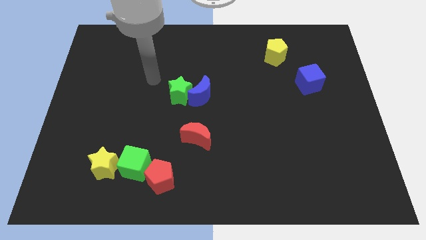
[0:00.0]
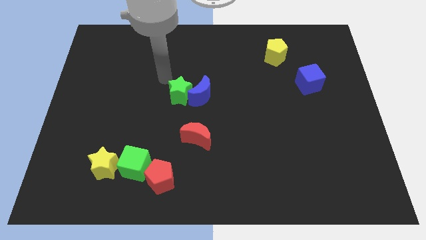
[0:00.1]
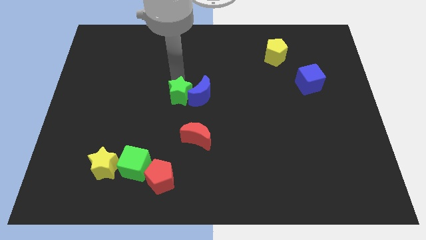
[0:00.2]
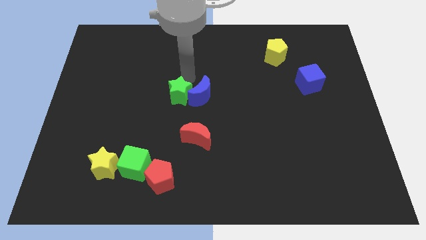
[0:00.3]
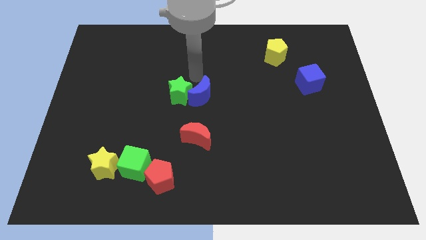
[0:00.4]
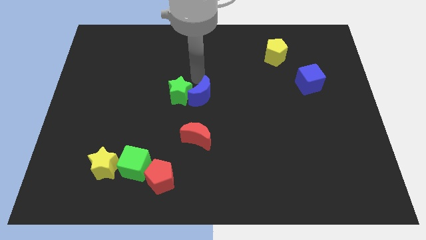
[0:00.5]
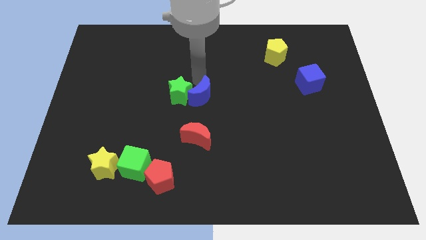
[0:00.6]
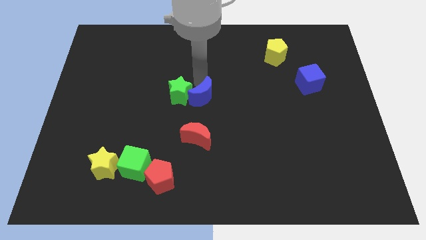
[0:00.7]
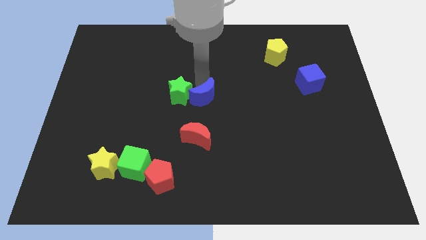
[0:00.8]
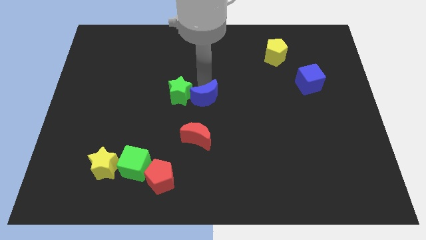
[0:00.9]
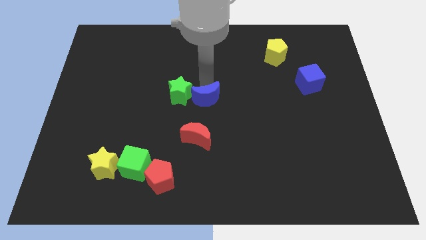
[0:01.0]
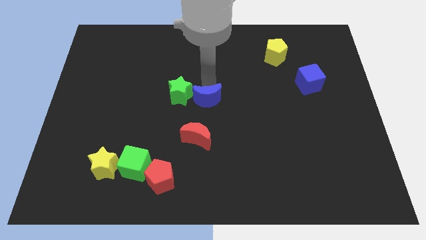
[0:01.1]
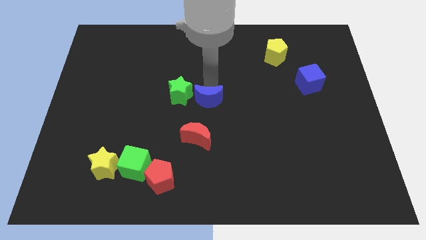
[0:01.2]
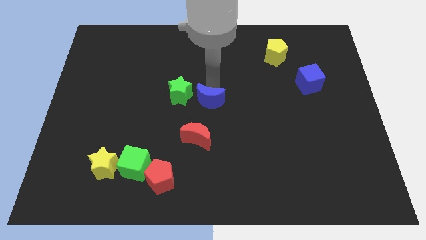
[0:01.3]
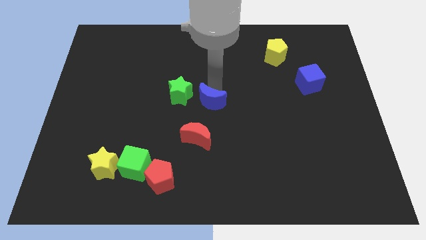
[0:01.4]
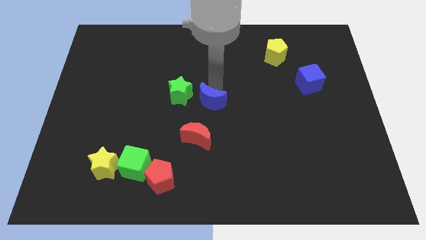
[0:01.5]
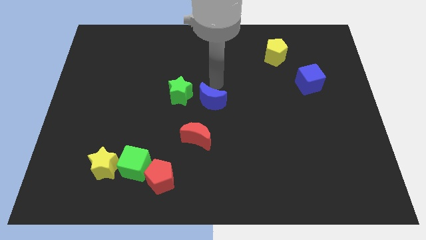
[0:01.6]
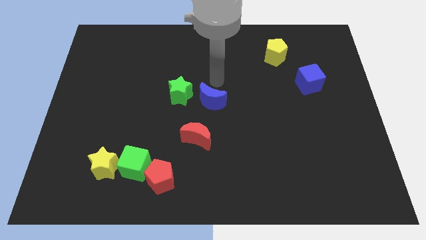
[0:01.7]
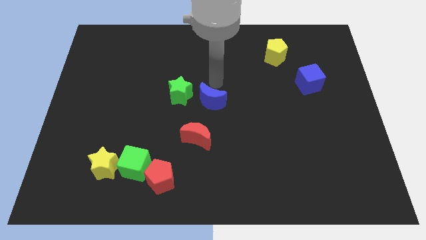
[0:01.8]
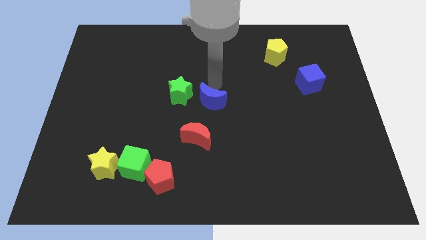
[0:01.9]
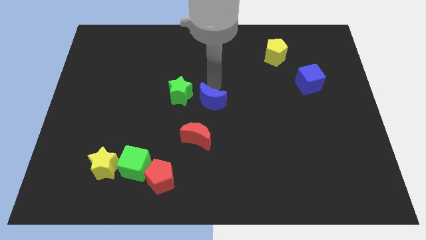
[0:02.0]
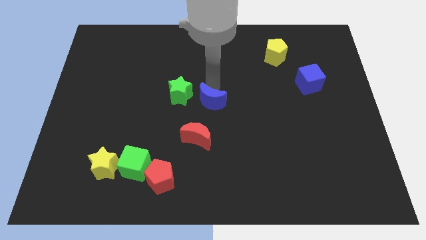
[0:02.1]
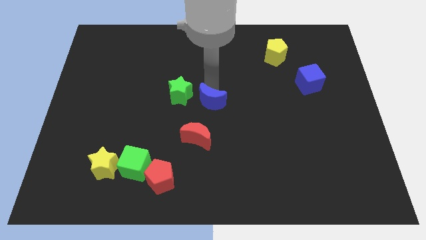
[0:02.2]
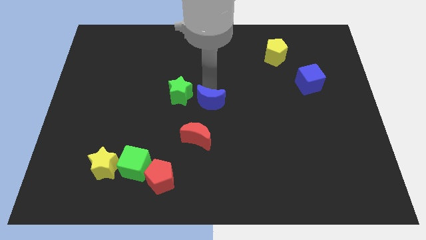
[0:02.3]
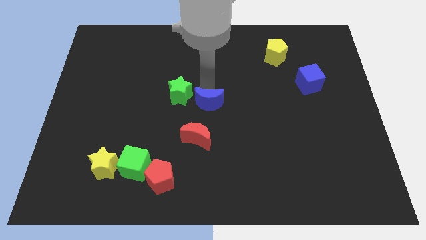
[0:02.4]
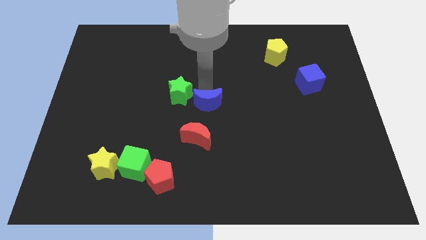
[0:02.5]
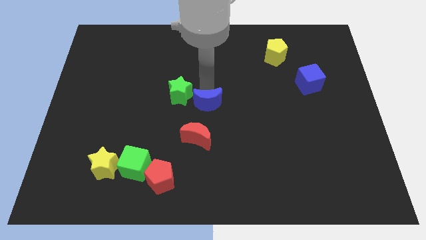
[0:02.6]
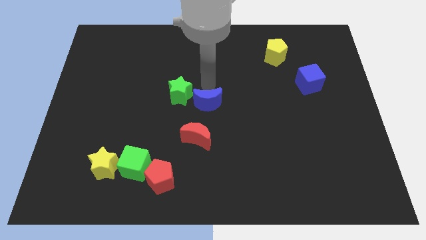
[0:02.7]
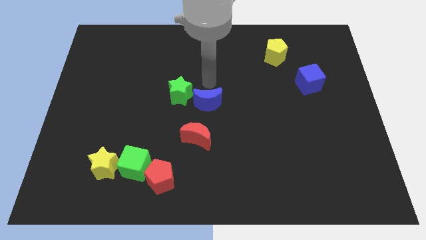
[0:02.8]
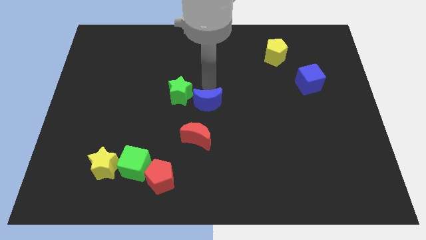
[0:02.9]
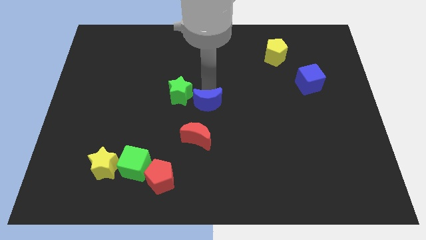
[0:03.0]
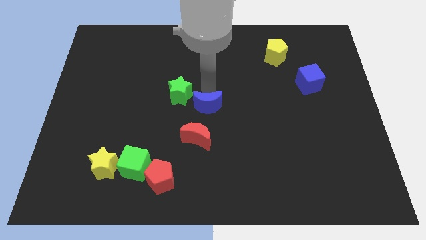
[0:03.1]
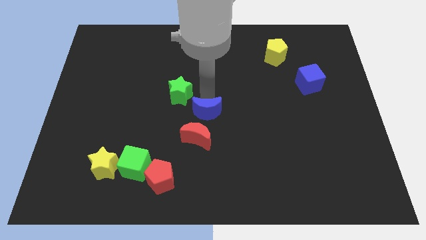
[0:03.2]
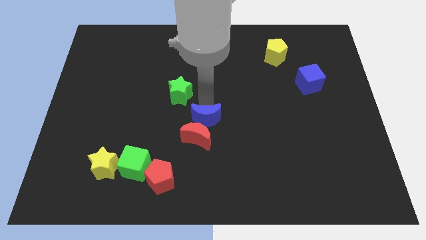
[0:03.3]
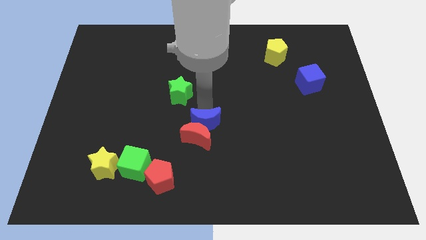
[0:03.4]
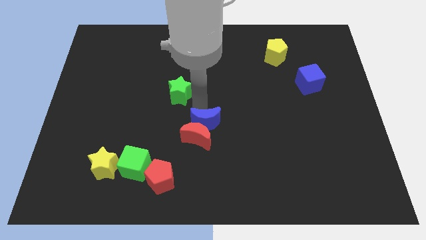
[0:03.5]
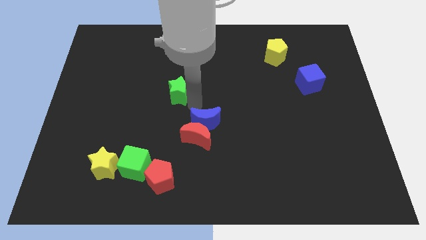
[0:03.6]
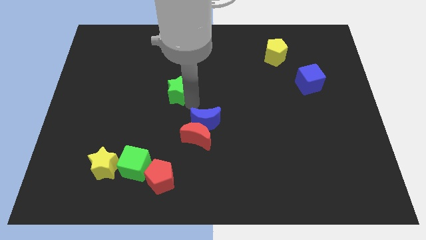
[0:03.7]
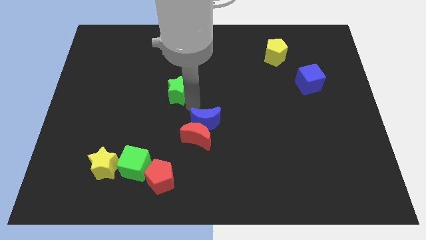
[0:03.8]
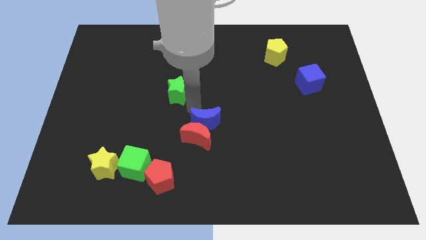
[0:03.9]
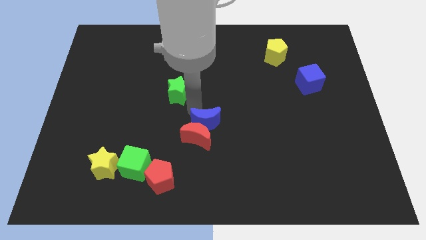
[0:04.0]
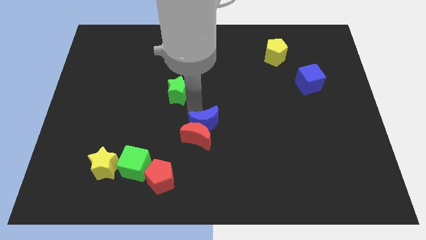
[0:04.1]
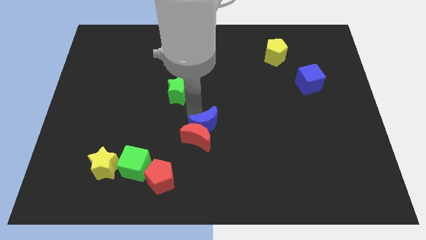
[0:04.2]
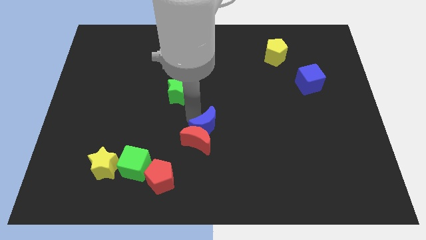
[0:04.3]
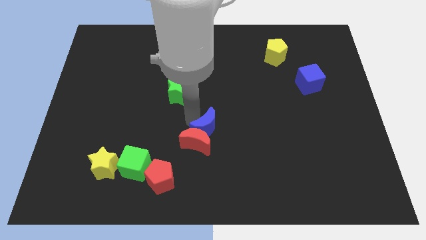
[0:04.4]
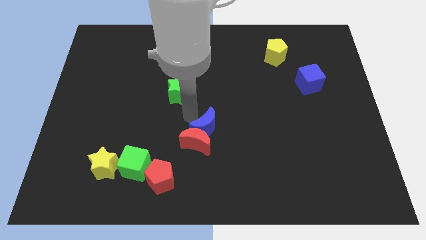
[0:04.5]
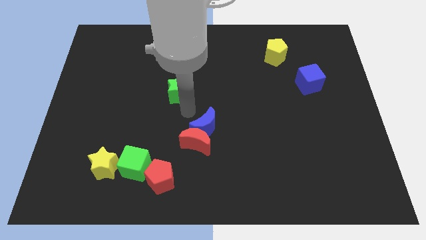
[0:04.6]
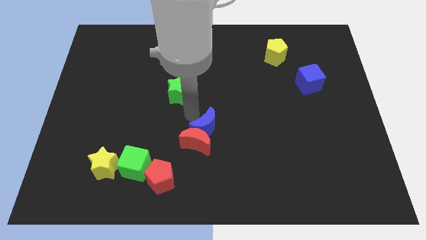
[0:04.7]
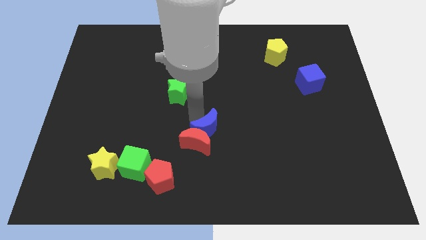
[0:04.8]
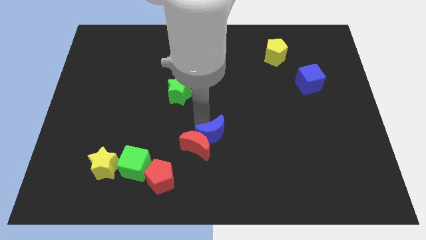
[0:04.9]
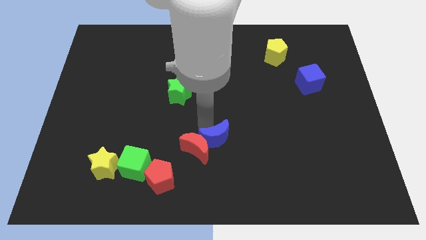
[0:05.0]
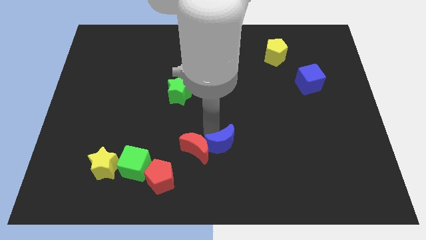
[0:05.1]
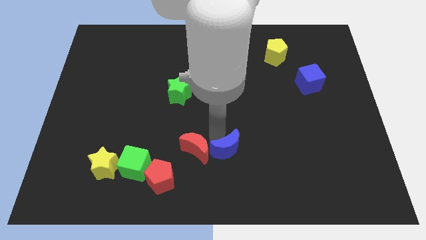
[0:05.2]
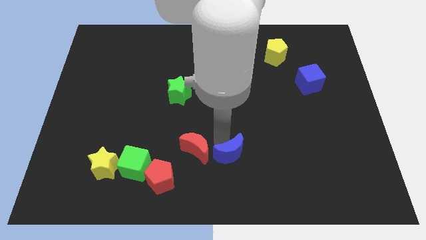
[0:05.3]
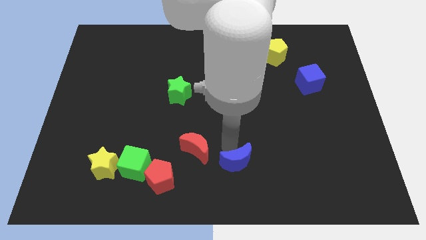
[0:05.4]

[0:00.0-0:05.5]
push the blue moon to the bottom side

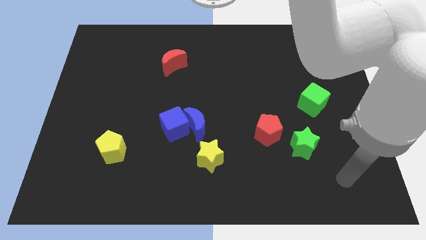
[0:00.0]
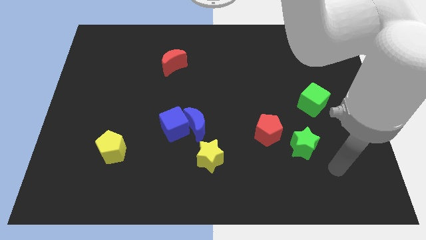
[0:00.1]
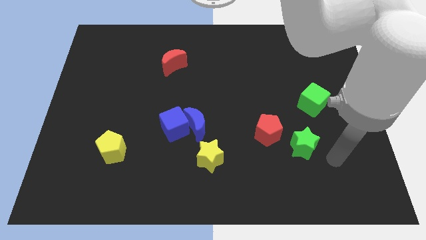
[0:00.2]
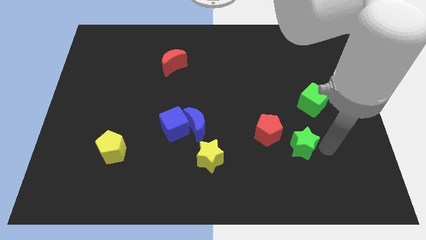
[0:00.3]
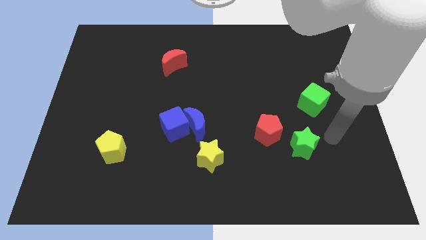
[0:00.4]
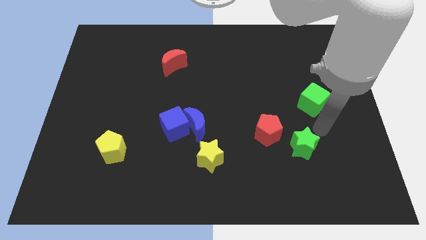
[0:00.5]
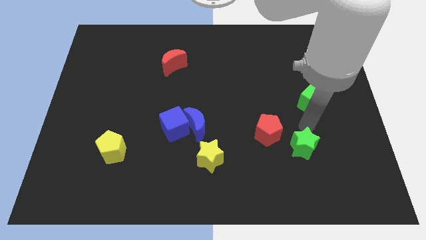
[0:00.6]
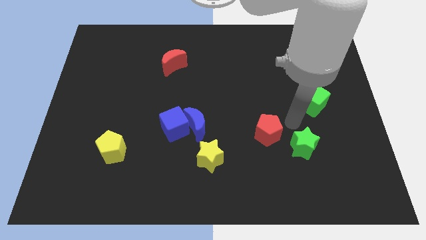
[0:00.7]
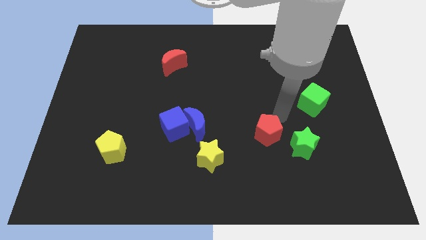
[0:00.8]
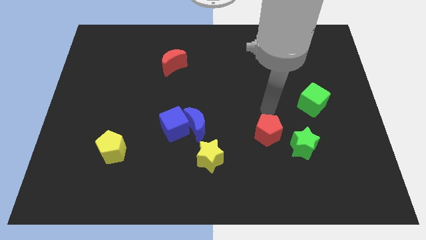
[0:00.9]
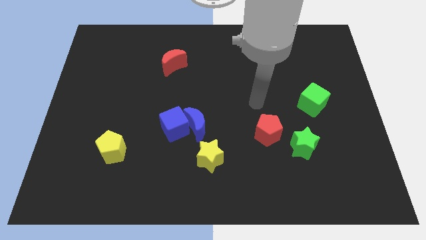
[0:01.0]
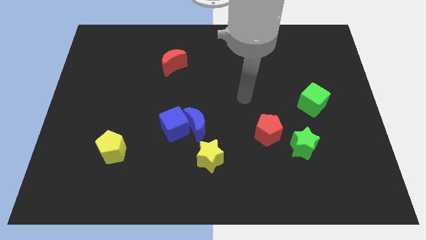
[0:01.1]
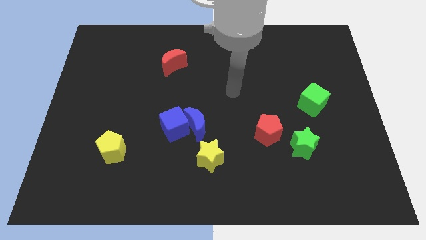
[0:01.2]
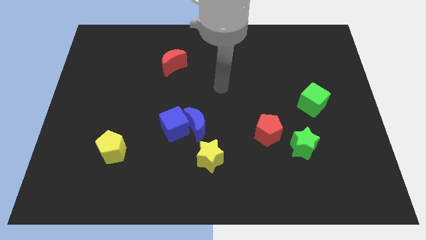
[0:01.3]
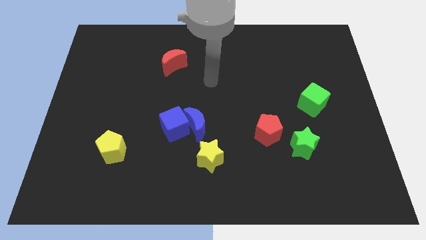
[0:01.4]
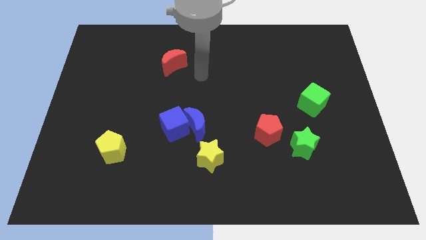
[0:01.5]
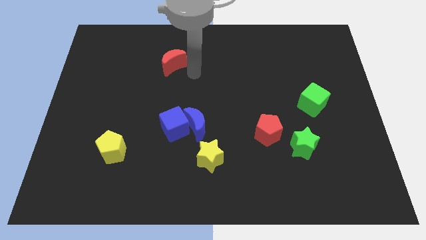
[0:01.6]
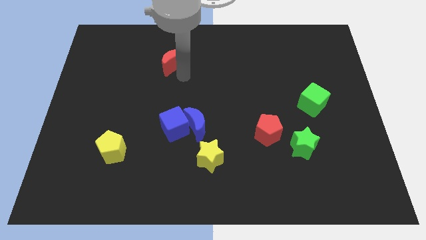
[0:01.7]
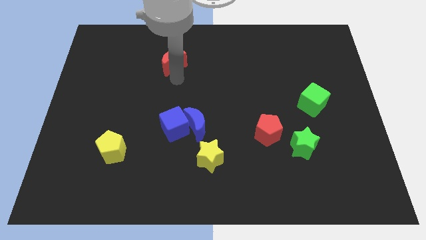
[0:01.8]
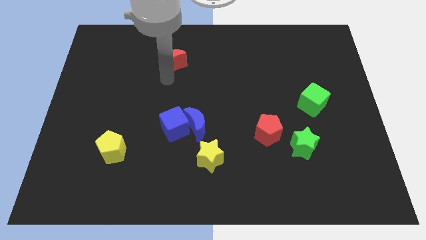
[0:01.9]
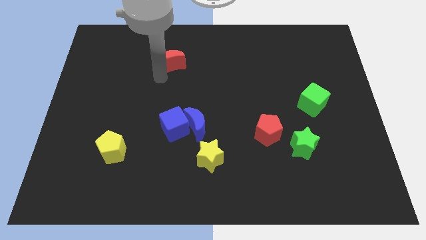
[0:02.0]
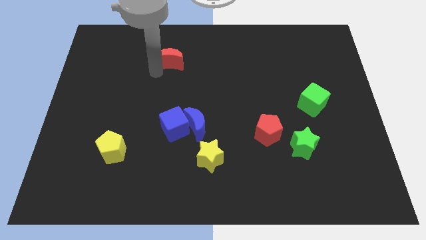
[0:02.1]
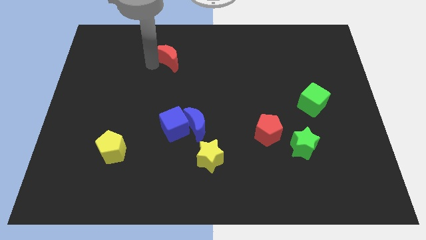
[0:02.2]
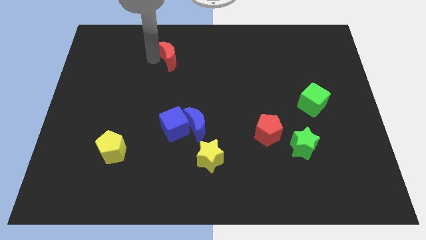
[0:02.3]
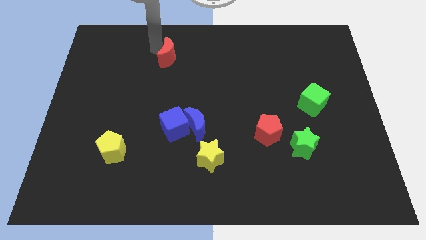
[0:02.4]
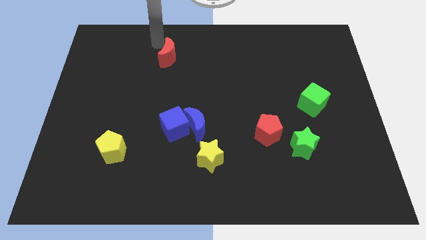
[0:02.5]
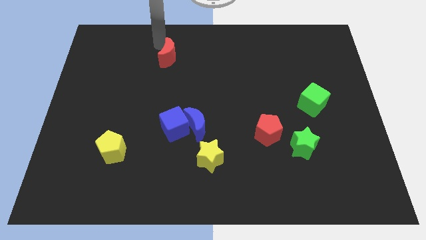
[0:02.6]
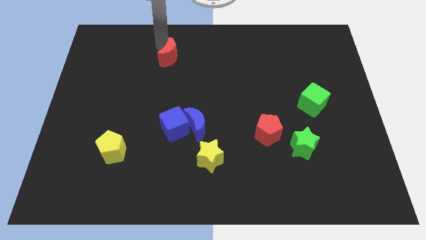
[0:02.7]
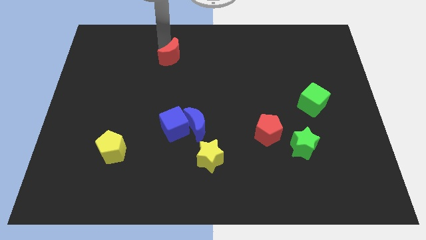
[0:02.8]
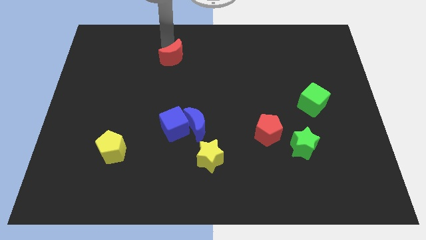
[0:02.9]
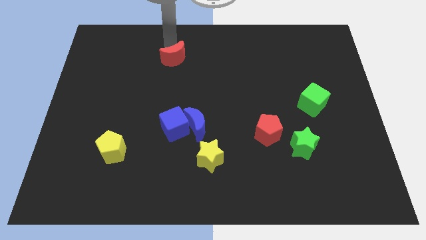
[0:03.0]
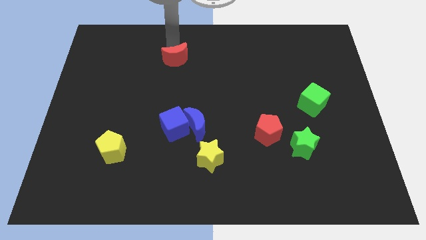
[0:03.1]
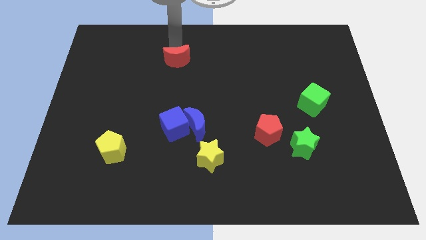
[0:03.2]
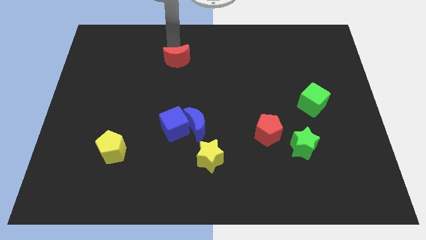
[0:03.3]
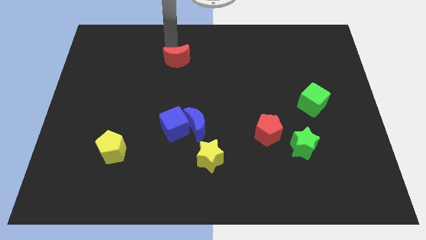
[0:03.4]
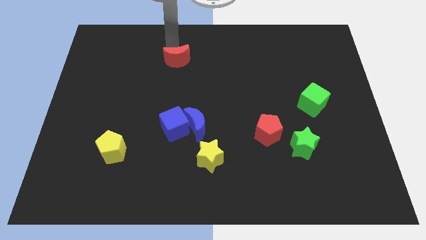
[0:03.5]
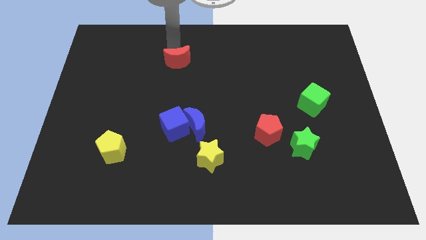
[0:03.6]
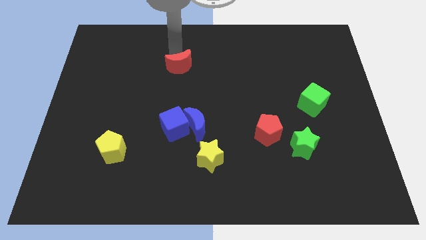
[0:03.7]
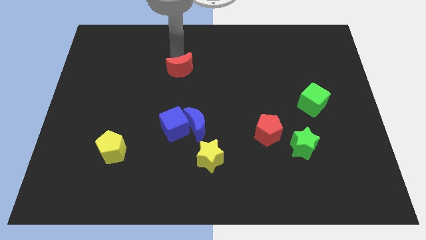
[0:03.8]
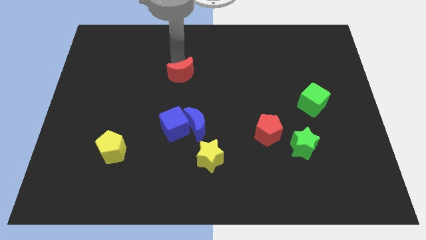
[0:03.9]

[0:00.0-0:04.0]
push the red moon to the center
